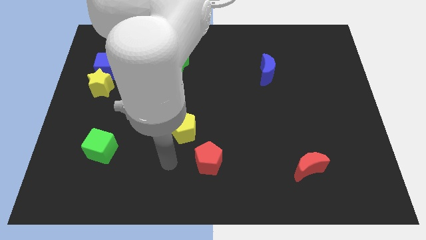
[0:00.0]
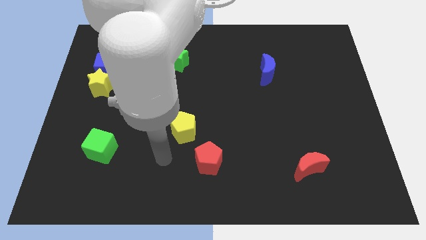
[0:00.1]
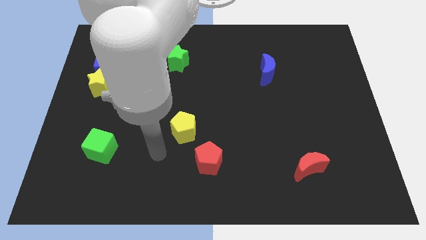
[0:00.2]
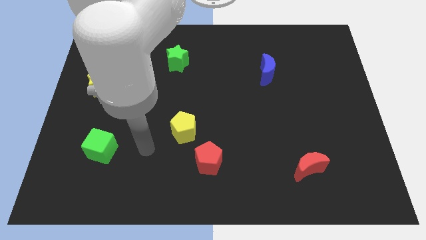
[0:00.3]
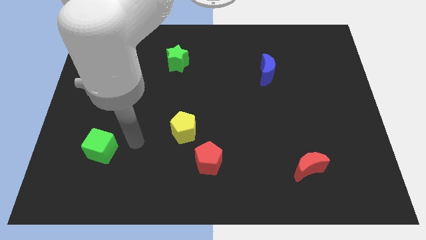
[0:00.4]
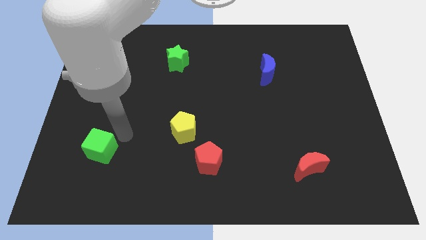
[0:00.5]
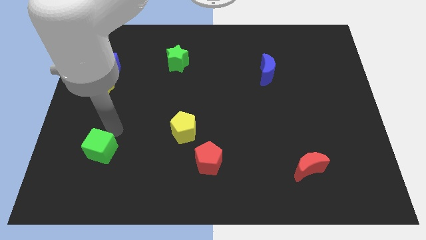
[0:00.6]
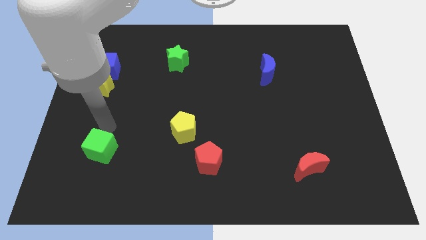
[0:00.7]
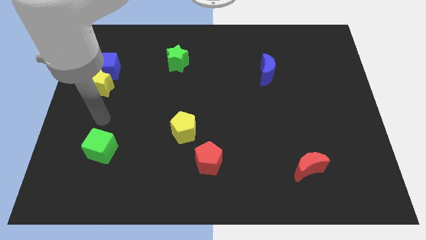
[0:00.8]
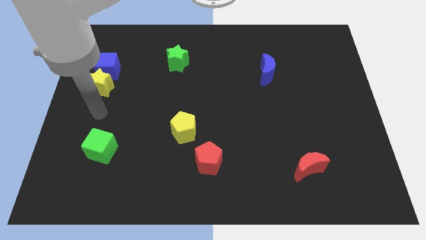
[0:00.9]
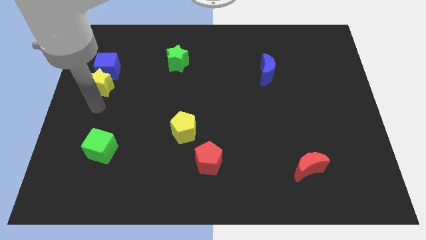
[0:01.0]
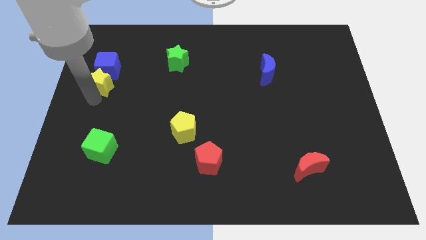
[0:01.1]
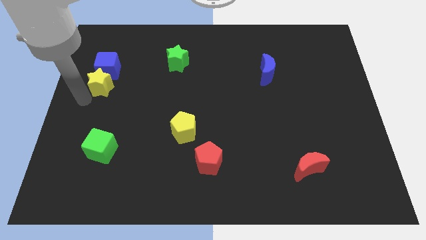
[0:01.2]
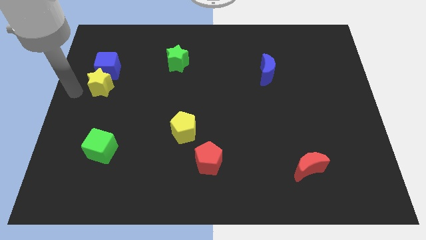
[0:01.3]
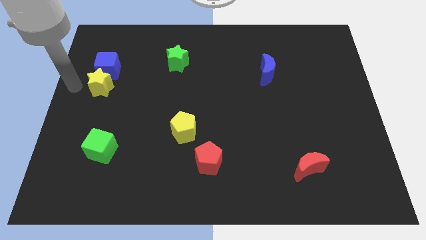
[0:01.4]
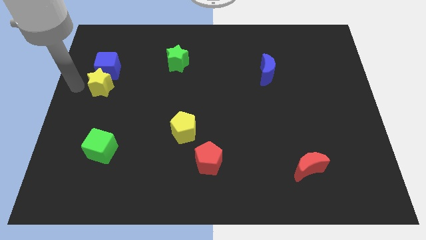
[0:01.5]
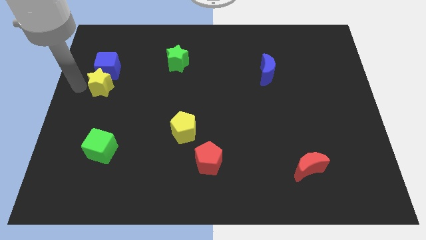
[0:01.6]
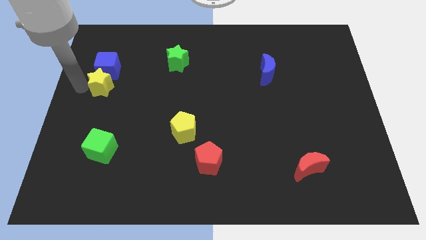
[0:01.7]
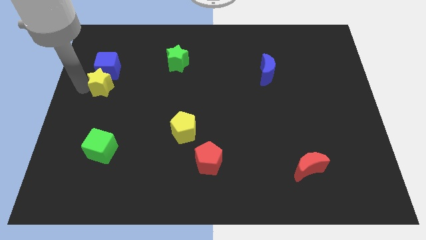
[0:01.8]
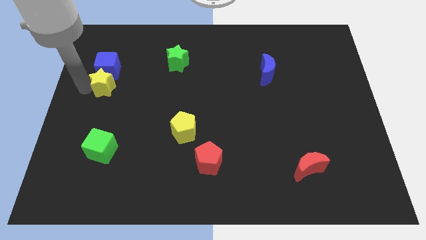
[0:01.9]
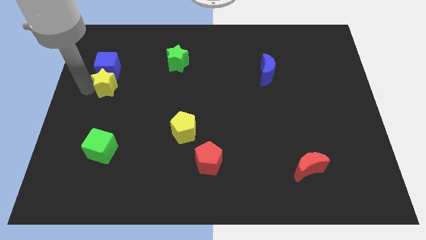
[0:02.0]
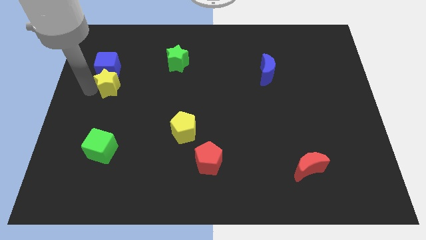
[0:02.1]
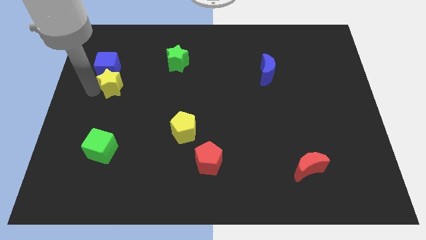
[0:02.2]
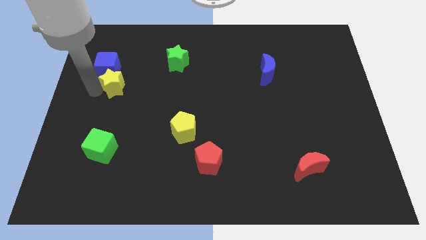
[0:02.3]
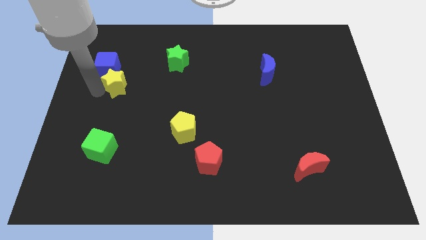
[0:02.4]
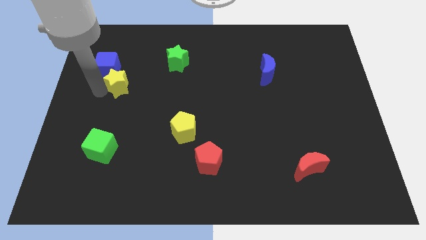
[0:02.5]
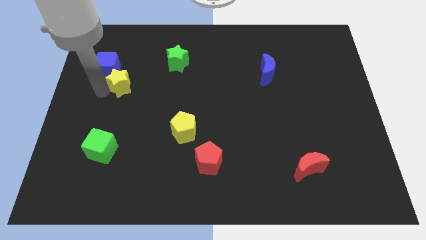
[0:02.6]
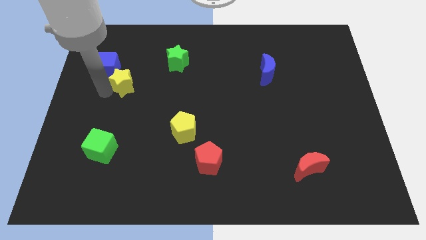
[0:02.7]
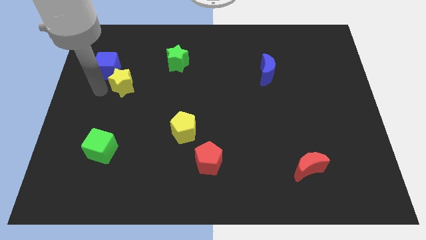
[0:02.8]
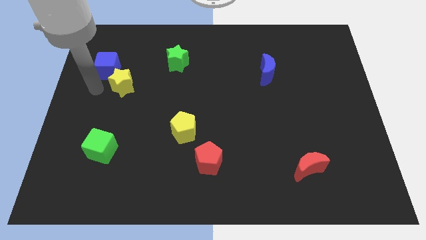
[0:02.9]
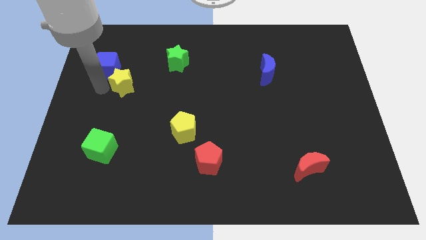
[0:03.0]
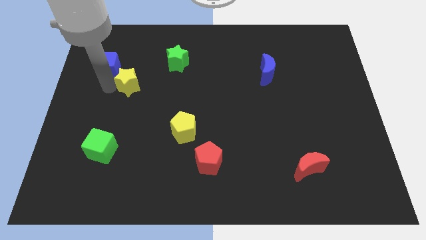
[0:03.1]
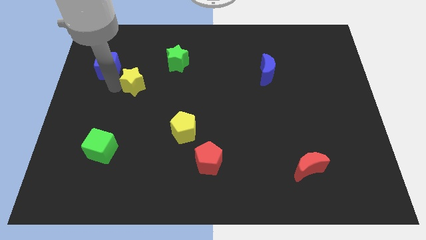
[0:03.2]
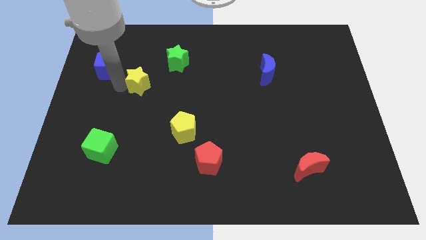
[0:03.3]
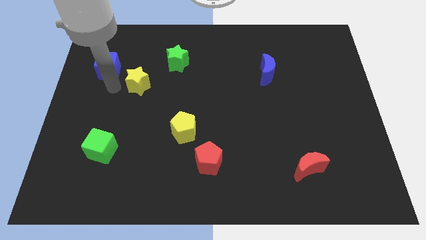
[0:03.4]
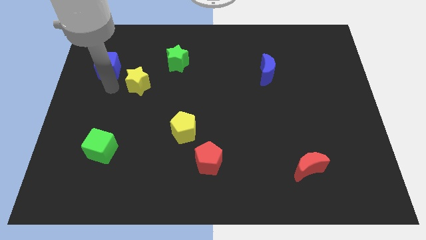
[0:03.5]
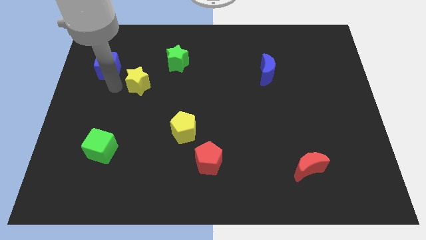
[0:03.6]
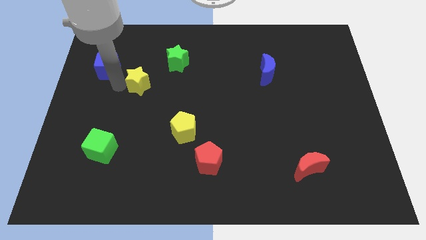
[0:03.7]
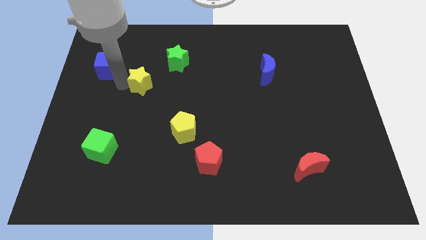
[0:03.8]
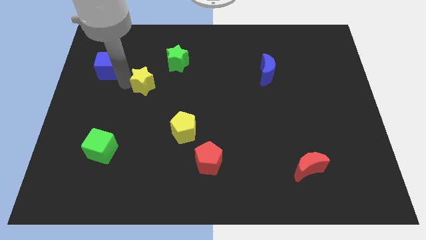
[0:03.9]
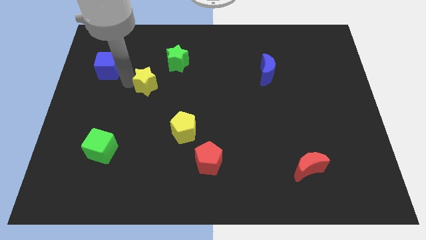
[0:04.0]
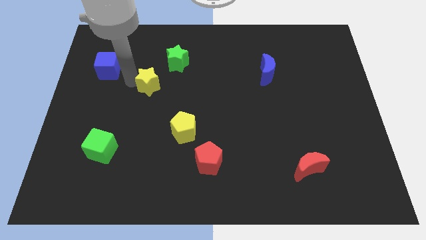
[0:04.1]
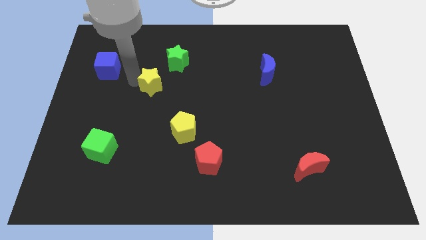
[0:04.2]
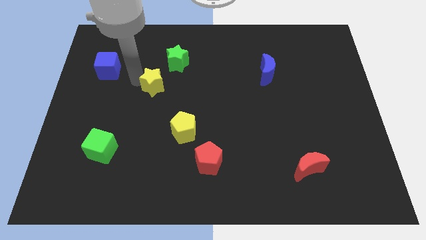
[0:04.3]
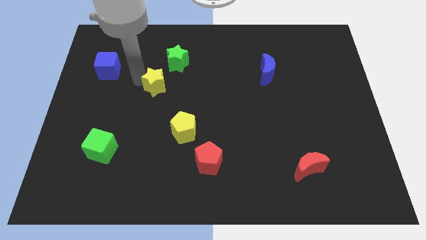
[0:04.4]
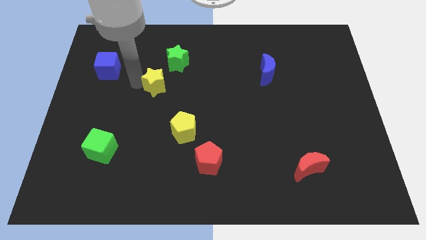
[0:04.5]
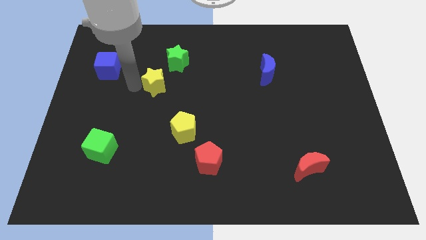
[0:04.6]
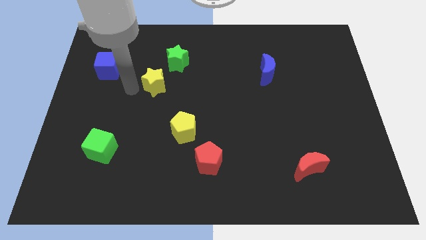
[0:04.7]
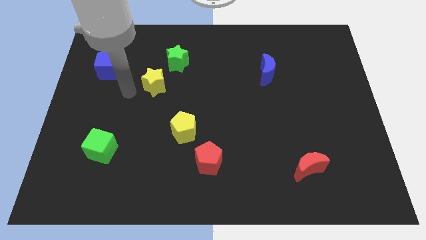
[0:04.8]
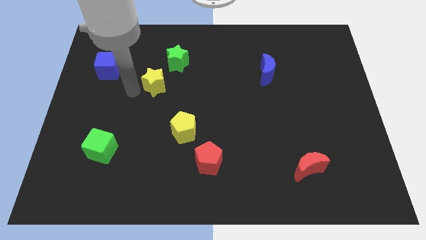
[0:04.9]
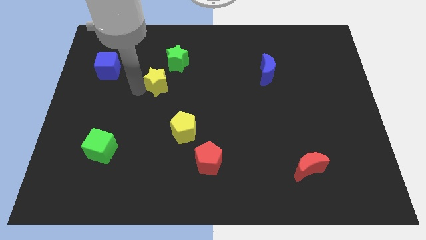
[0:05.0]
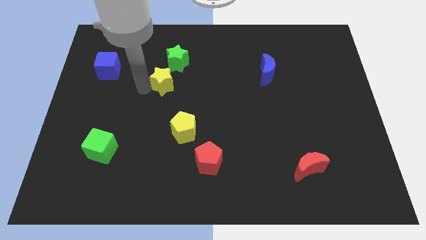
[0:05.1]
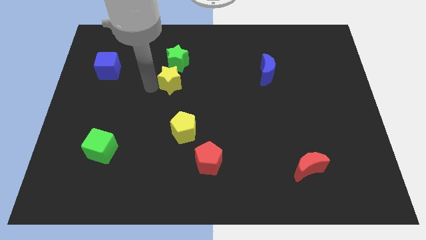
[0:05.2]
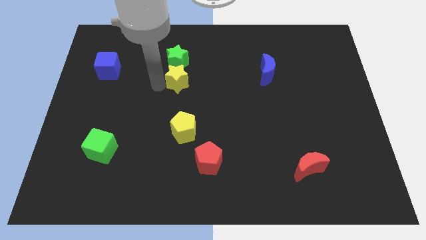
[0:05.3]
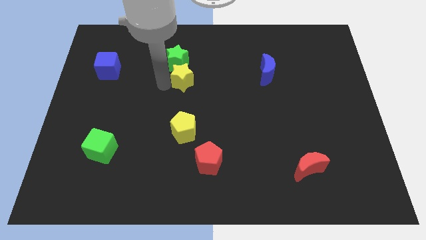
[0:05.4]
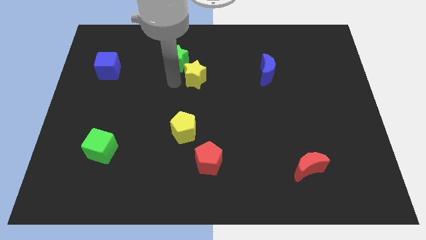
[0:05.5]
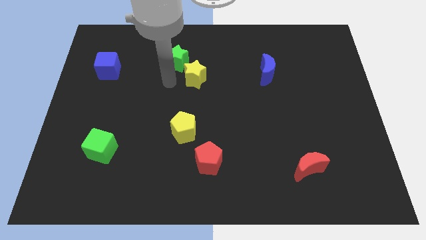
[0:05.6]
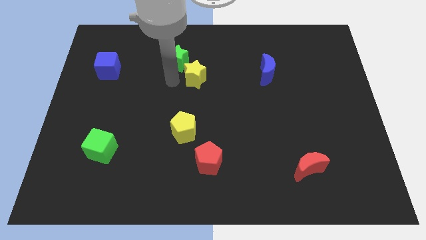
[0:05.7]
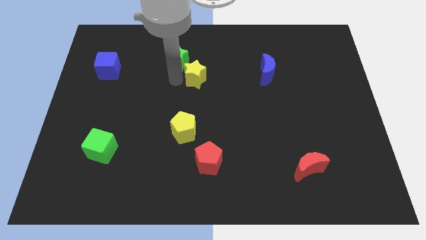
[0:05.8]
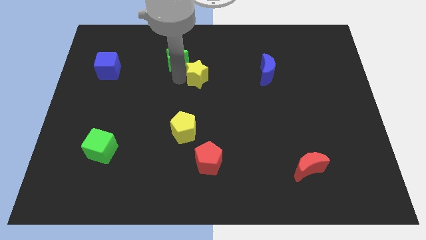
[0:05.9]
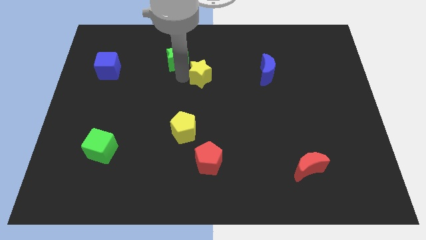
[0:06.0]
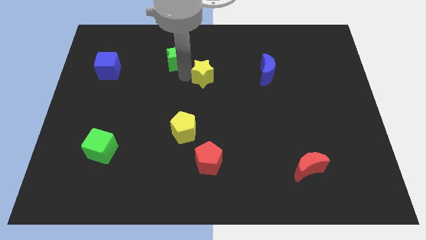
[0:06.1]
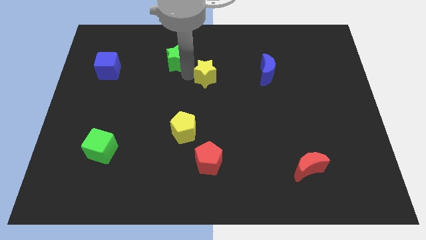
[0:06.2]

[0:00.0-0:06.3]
move the yellow star to the left of the blue moon
